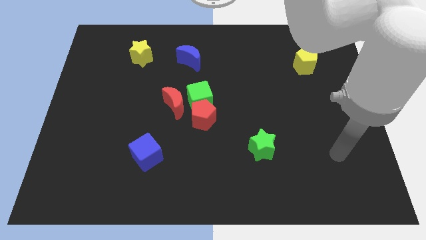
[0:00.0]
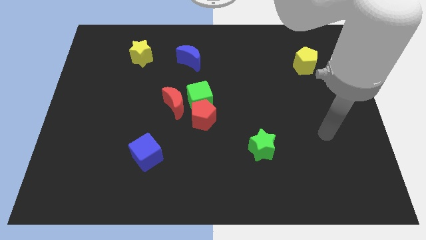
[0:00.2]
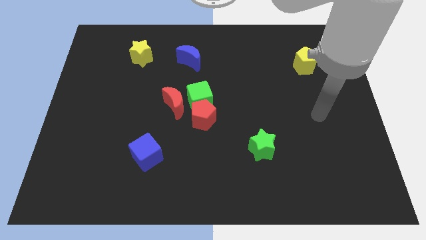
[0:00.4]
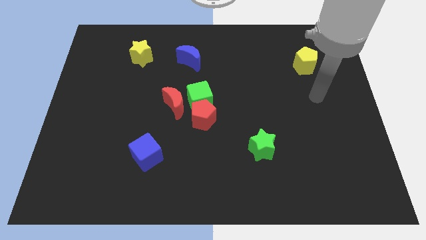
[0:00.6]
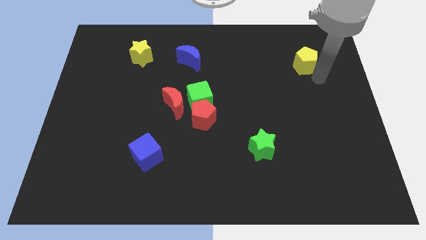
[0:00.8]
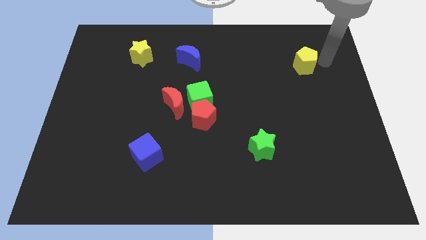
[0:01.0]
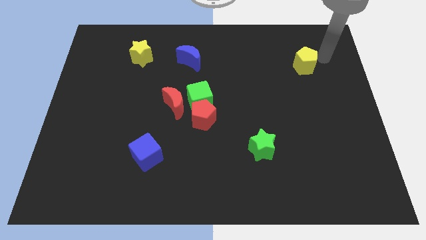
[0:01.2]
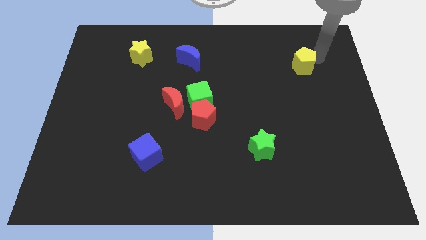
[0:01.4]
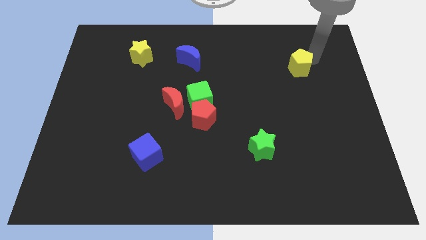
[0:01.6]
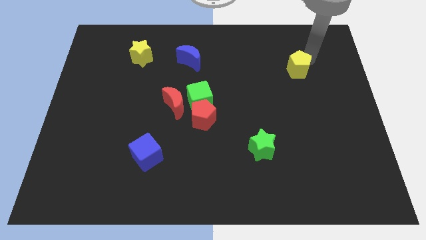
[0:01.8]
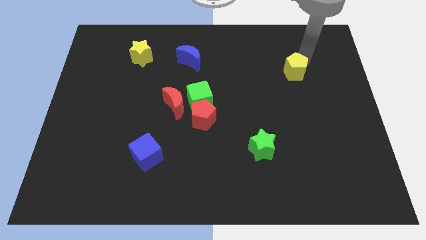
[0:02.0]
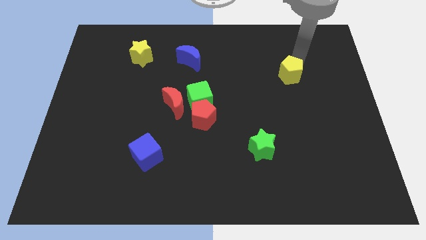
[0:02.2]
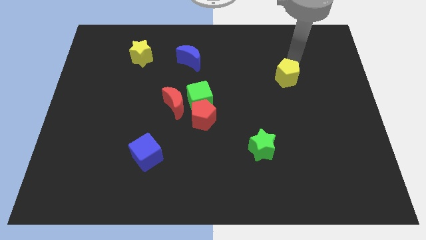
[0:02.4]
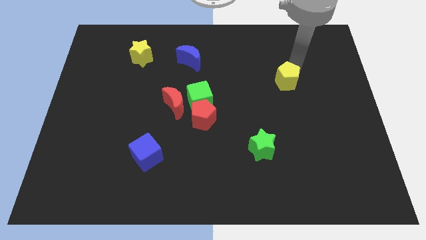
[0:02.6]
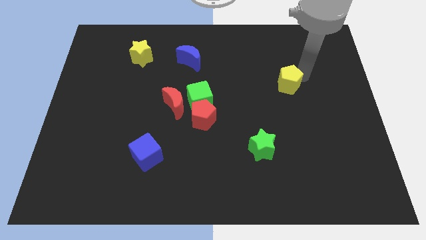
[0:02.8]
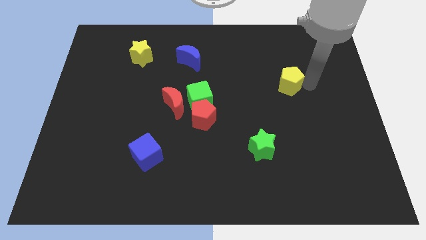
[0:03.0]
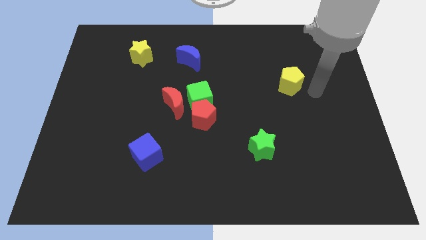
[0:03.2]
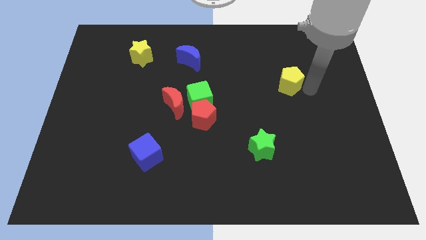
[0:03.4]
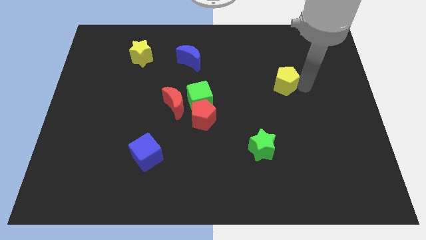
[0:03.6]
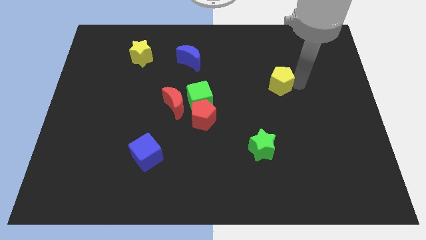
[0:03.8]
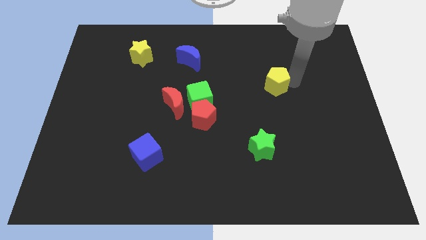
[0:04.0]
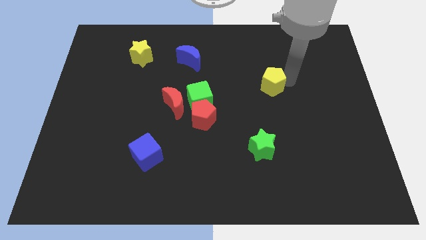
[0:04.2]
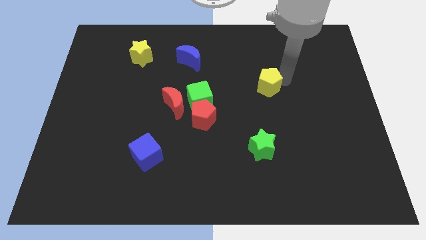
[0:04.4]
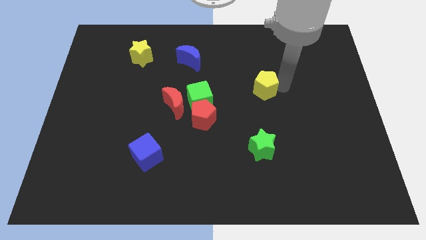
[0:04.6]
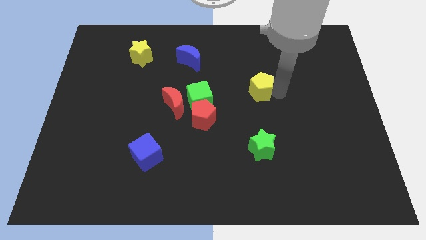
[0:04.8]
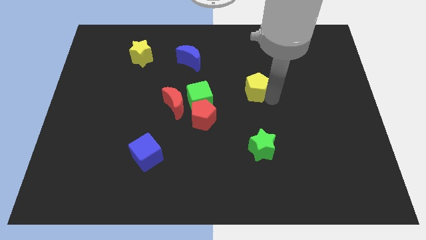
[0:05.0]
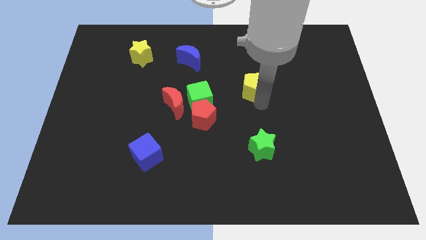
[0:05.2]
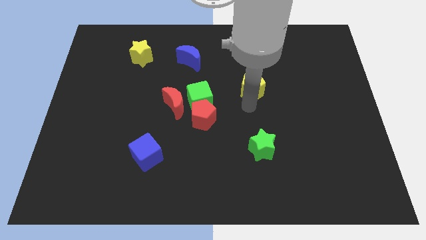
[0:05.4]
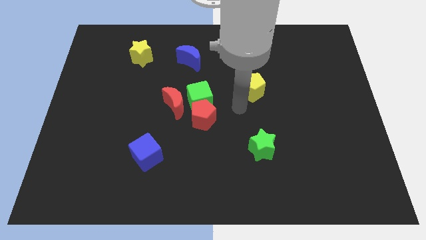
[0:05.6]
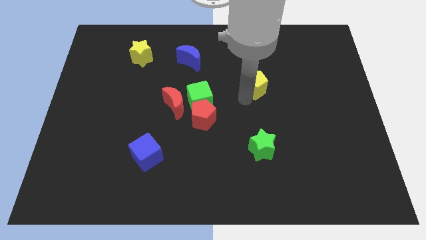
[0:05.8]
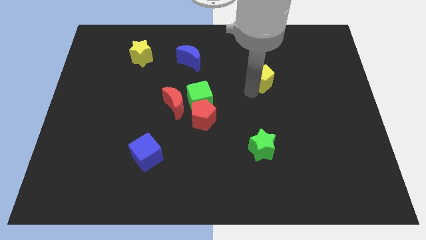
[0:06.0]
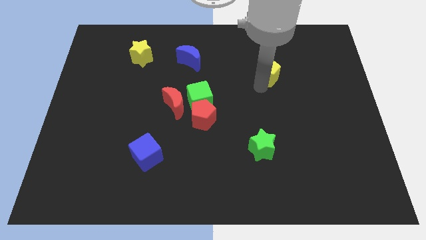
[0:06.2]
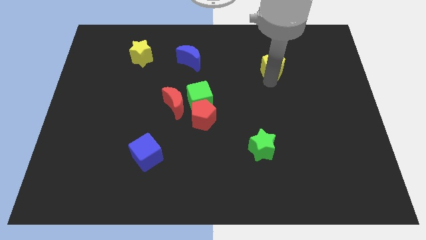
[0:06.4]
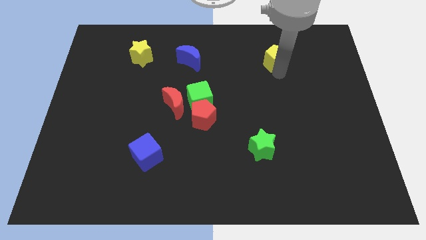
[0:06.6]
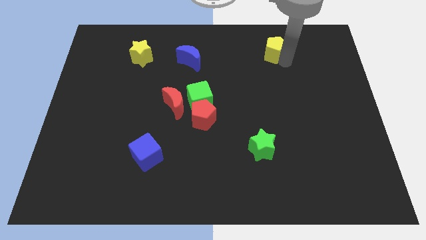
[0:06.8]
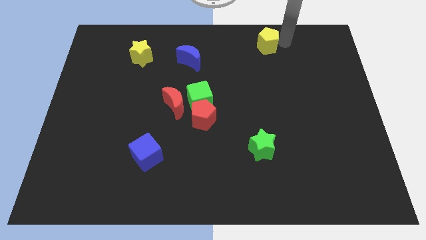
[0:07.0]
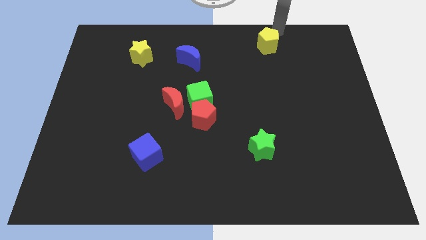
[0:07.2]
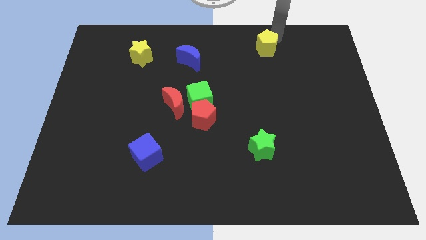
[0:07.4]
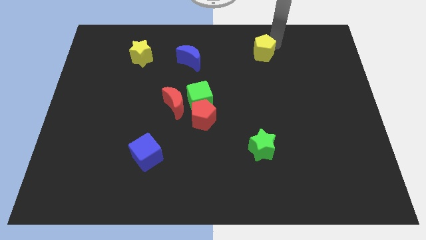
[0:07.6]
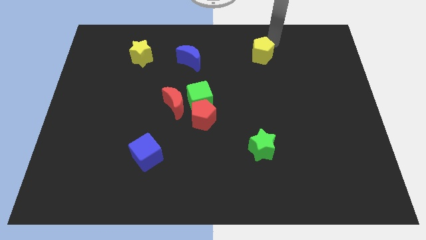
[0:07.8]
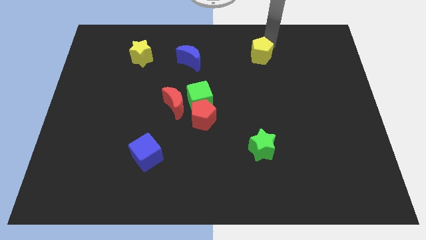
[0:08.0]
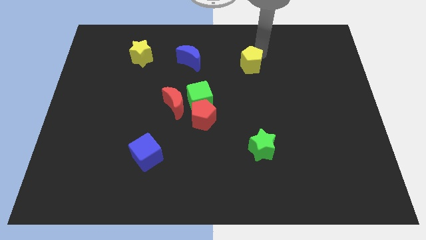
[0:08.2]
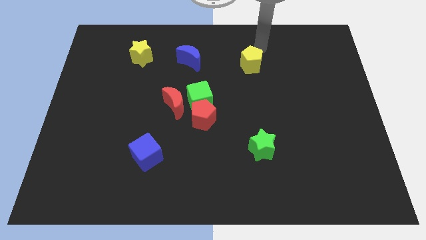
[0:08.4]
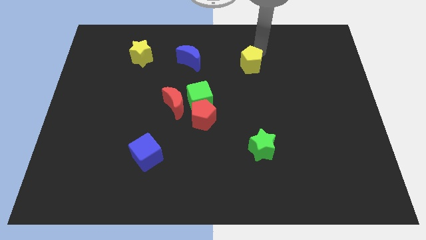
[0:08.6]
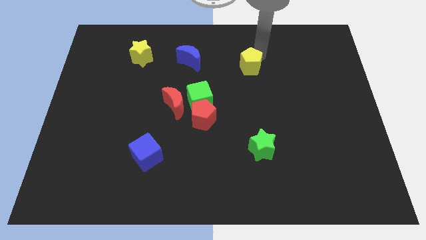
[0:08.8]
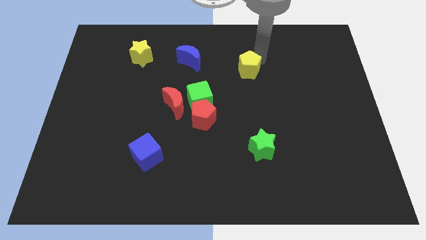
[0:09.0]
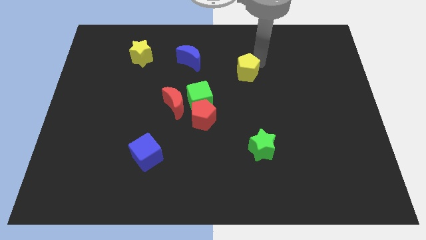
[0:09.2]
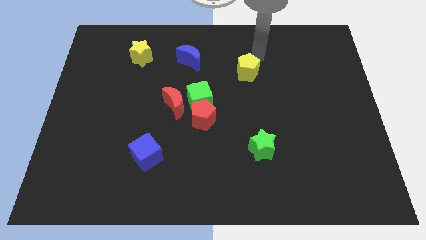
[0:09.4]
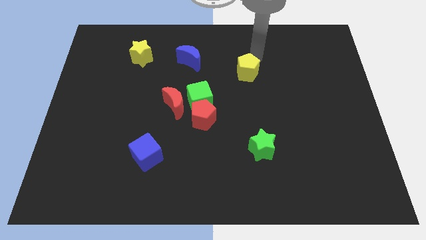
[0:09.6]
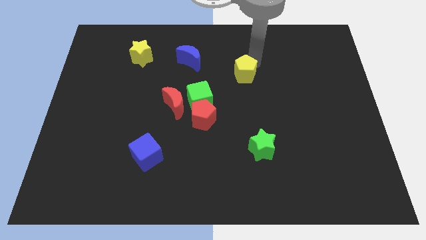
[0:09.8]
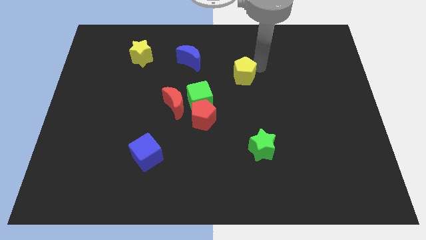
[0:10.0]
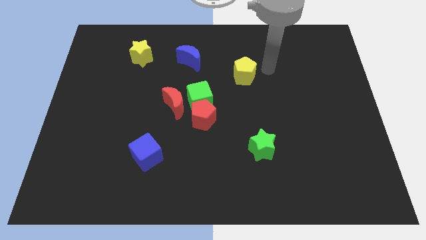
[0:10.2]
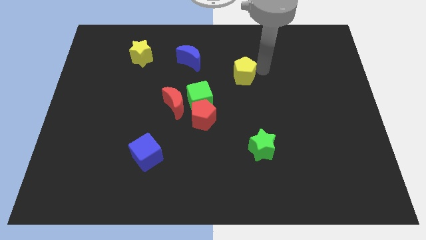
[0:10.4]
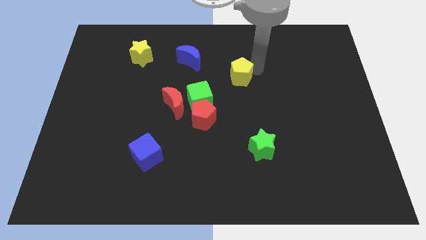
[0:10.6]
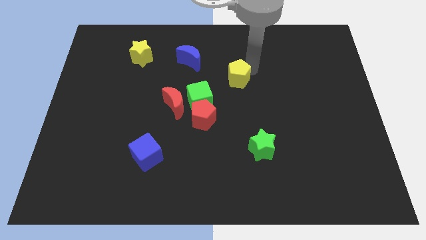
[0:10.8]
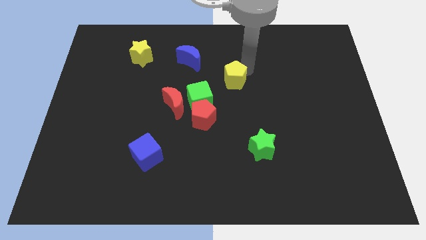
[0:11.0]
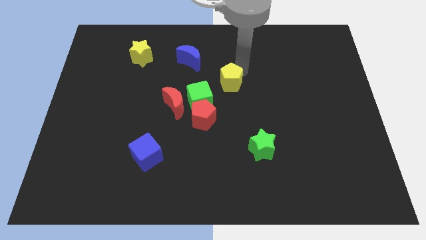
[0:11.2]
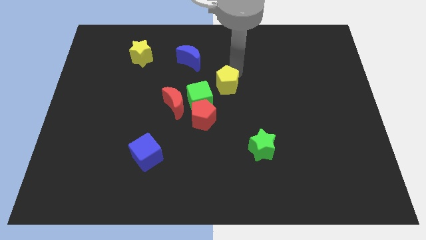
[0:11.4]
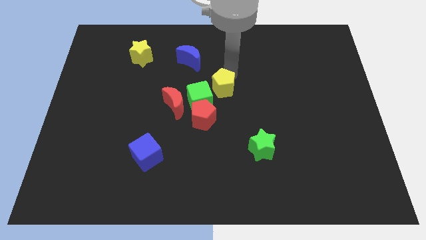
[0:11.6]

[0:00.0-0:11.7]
put the yellow pentagon to the top of the red pentagon
